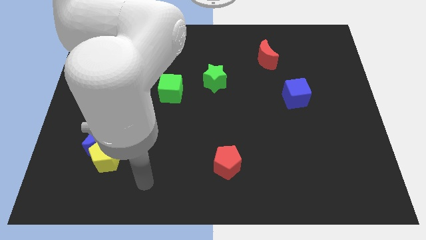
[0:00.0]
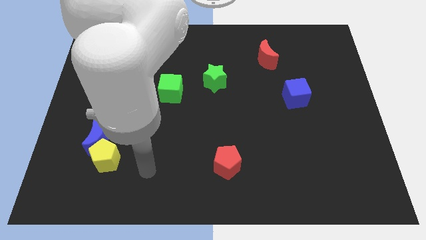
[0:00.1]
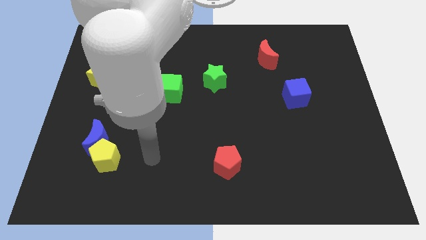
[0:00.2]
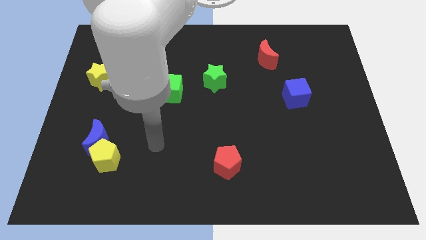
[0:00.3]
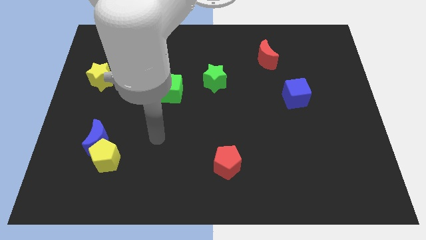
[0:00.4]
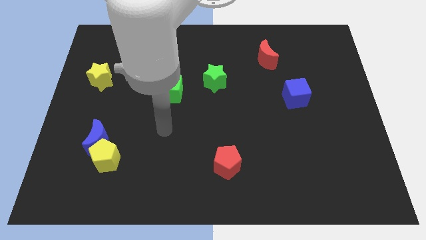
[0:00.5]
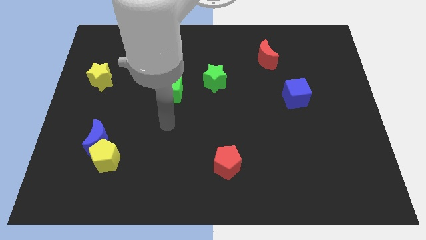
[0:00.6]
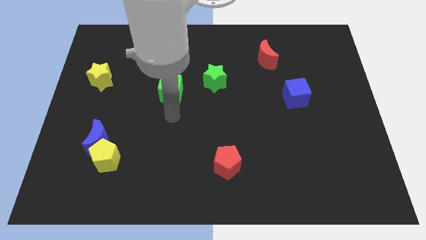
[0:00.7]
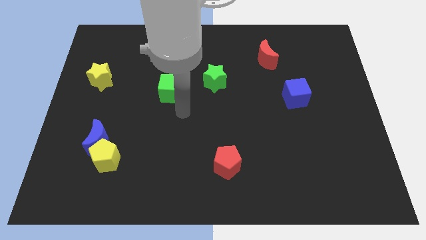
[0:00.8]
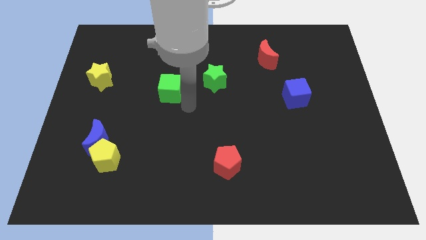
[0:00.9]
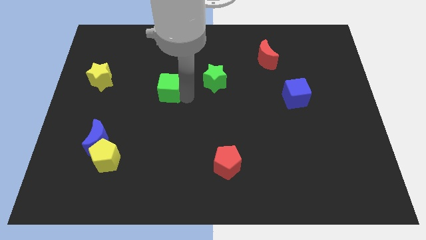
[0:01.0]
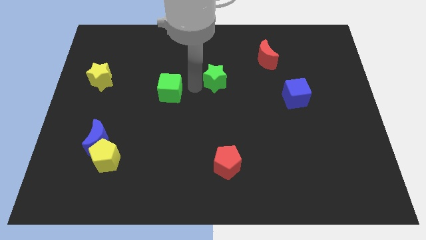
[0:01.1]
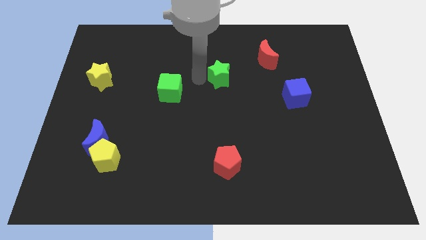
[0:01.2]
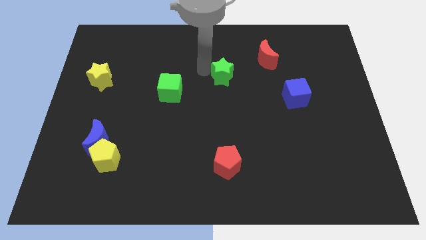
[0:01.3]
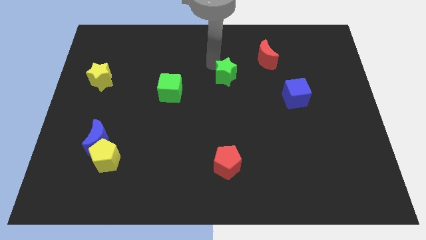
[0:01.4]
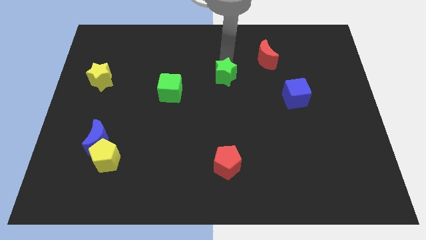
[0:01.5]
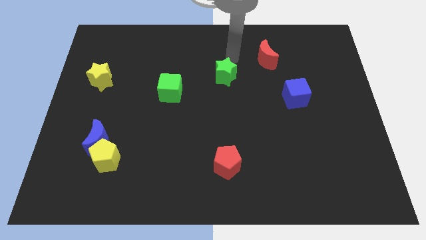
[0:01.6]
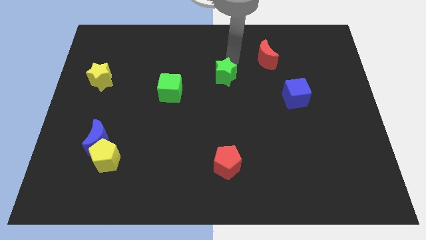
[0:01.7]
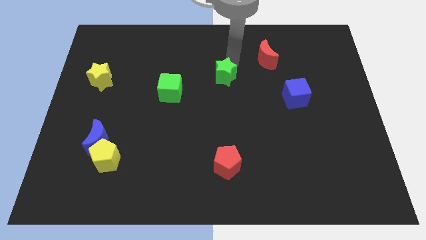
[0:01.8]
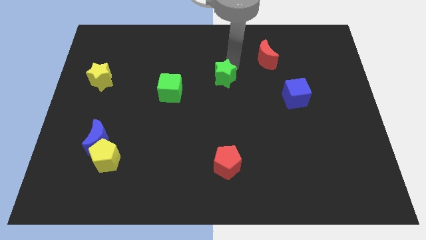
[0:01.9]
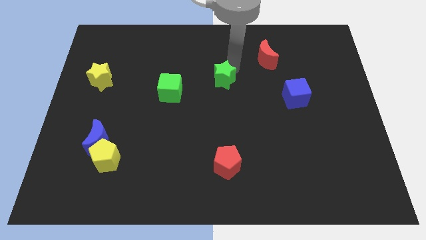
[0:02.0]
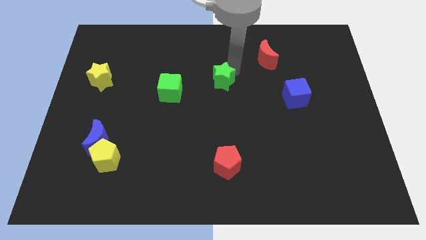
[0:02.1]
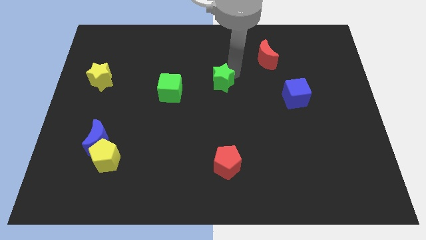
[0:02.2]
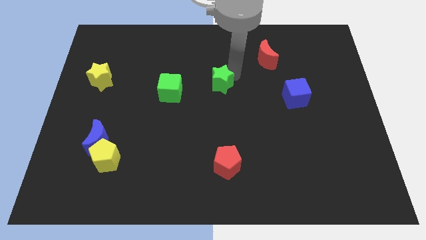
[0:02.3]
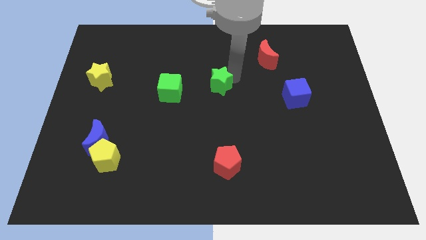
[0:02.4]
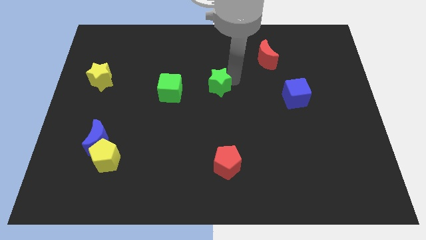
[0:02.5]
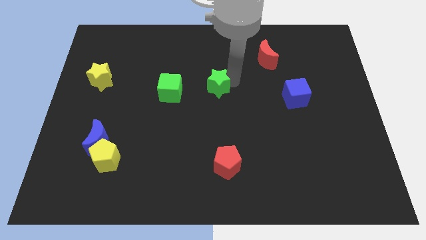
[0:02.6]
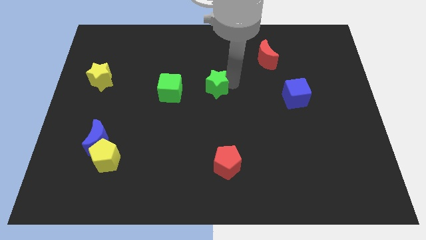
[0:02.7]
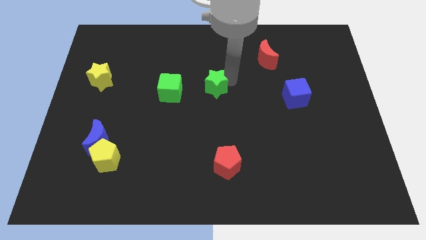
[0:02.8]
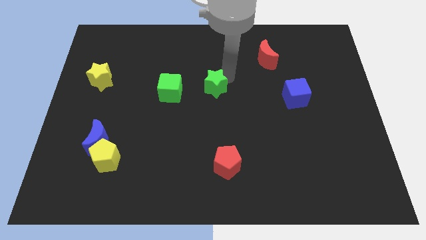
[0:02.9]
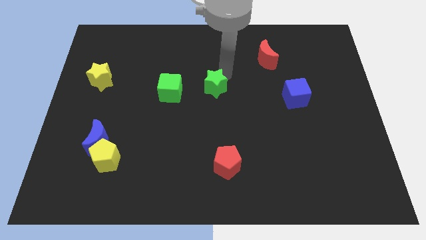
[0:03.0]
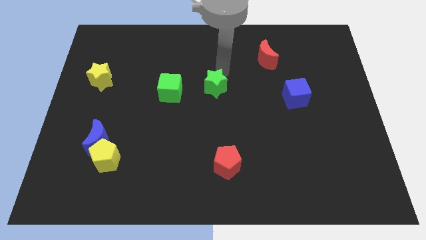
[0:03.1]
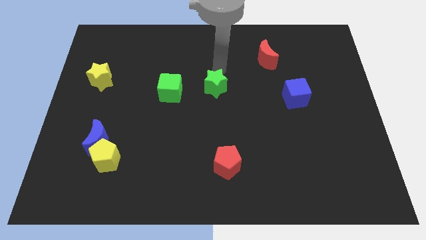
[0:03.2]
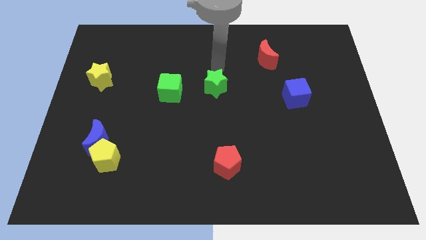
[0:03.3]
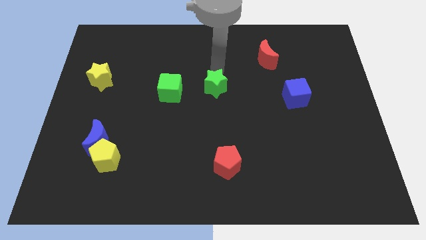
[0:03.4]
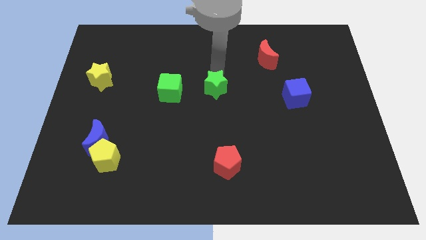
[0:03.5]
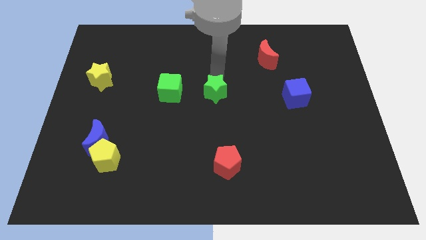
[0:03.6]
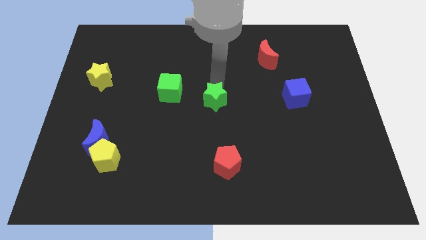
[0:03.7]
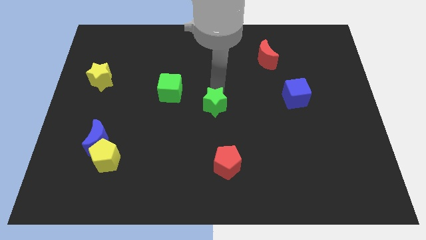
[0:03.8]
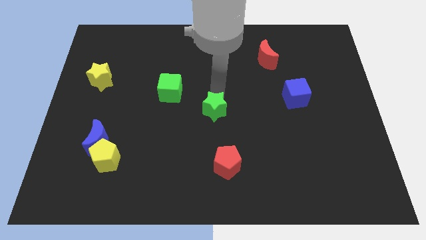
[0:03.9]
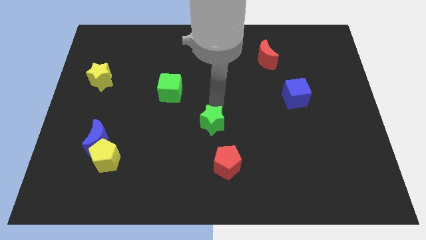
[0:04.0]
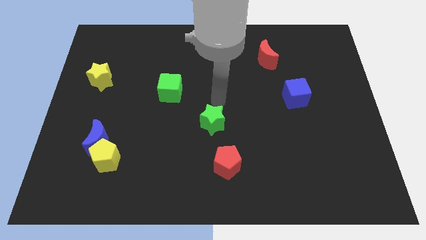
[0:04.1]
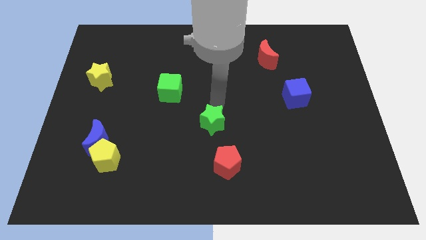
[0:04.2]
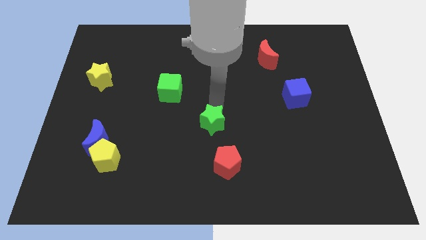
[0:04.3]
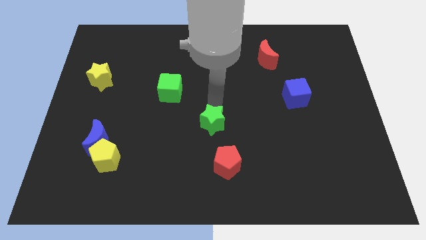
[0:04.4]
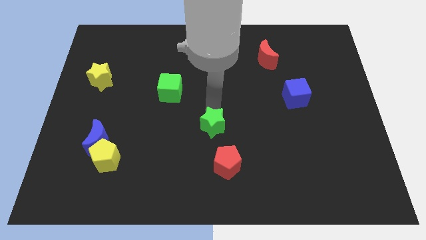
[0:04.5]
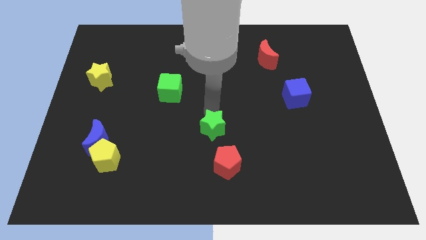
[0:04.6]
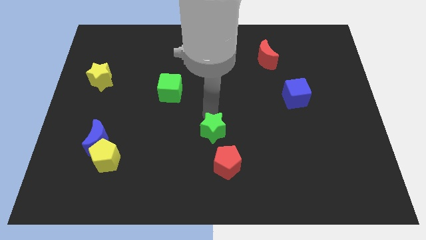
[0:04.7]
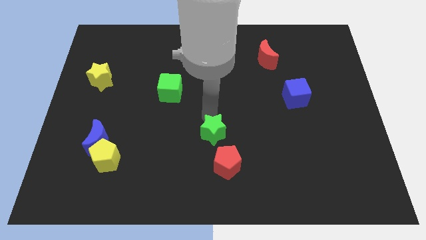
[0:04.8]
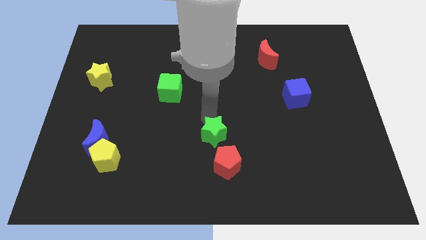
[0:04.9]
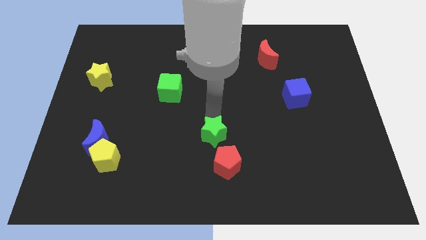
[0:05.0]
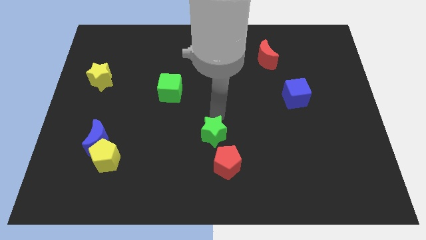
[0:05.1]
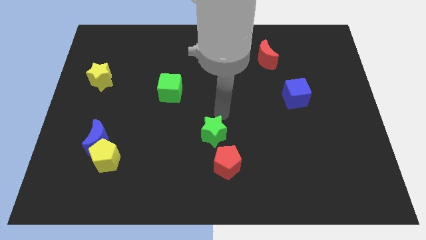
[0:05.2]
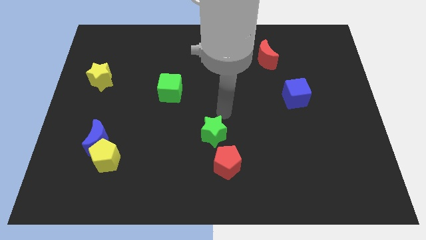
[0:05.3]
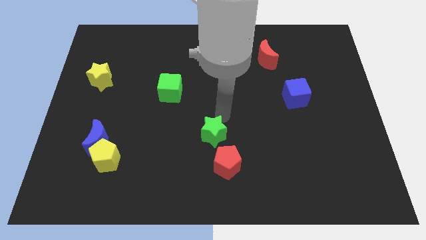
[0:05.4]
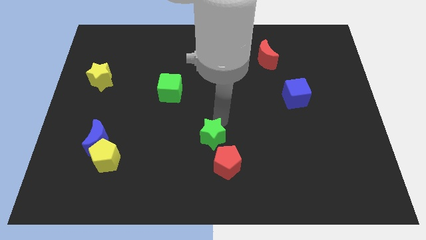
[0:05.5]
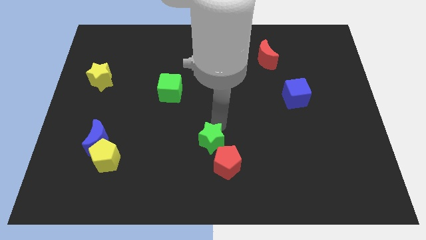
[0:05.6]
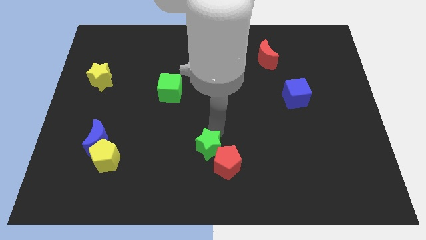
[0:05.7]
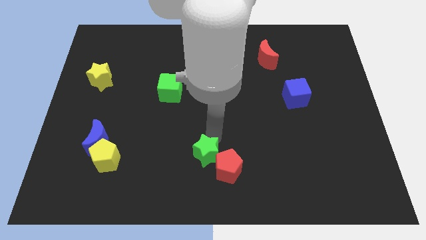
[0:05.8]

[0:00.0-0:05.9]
put the green star to the bottom side
